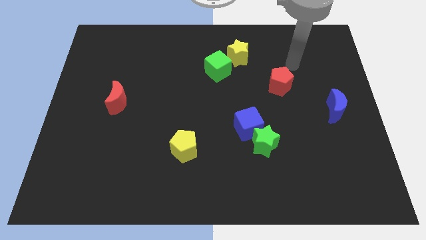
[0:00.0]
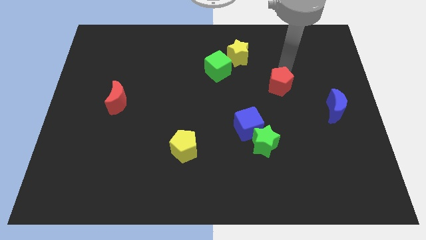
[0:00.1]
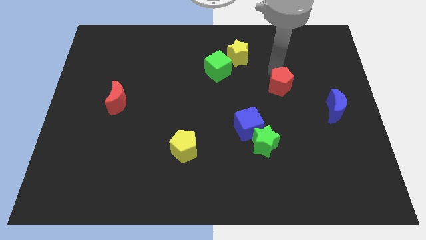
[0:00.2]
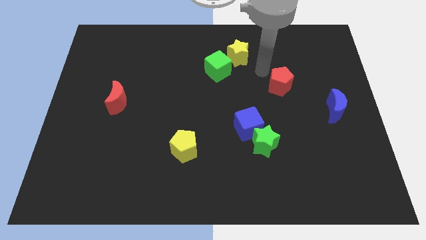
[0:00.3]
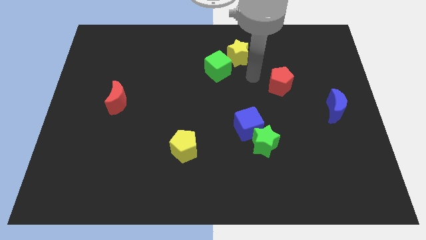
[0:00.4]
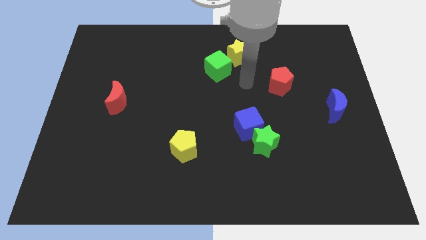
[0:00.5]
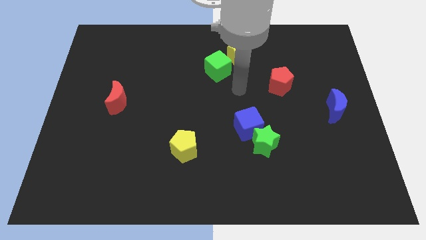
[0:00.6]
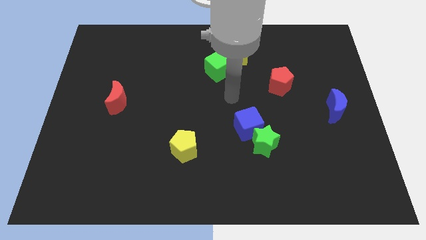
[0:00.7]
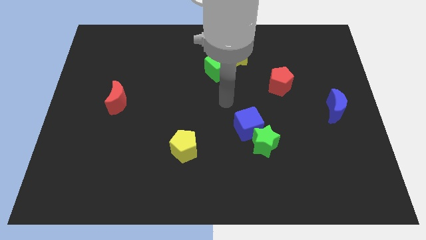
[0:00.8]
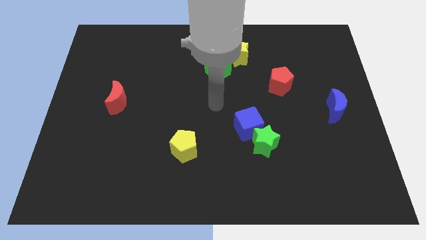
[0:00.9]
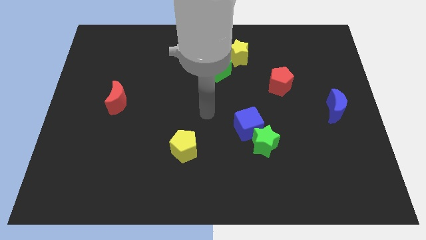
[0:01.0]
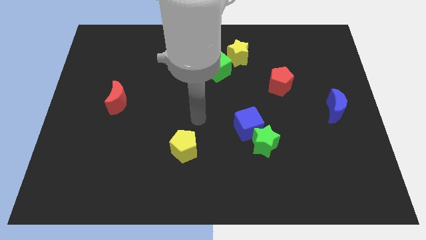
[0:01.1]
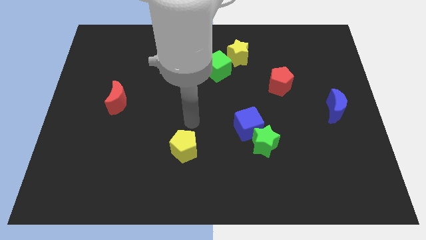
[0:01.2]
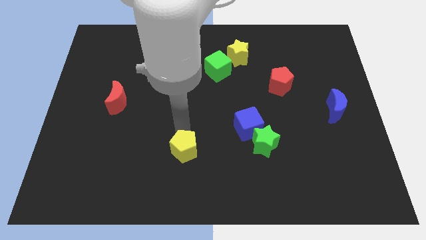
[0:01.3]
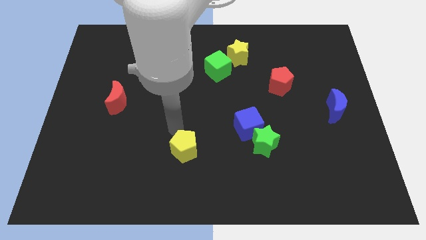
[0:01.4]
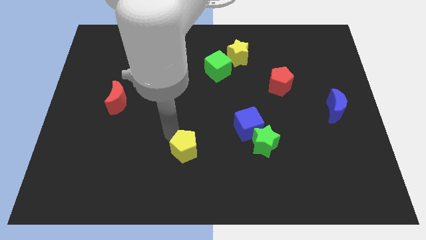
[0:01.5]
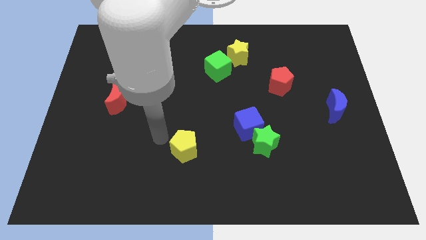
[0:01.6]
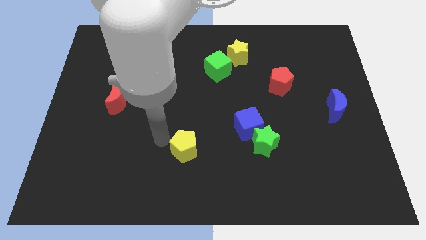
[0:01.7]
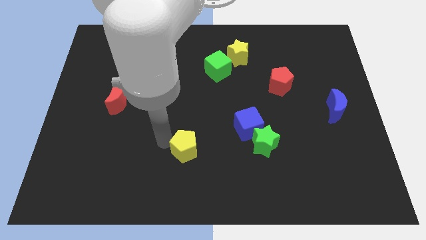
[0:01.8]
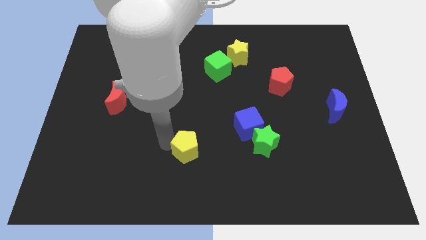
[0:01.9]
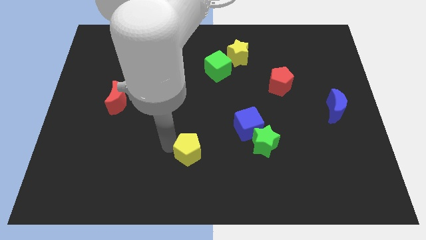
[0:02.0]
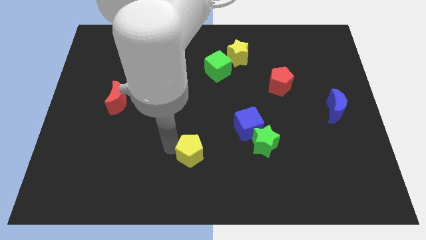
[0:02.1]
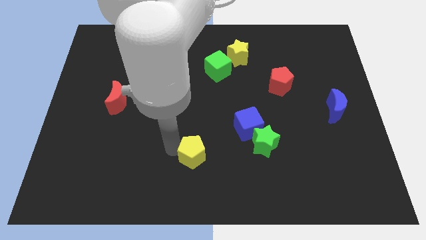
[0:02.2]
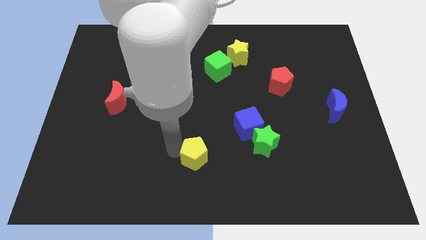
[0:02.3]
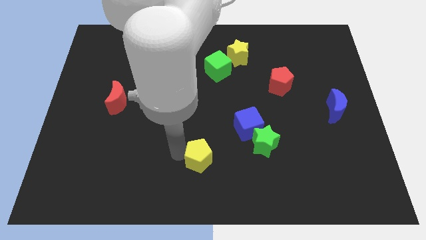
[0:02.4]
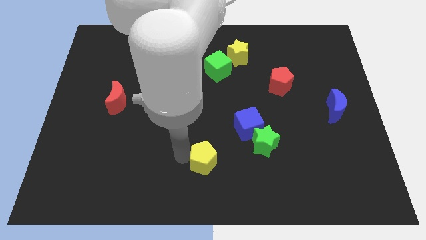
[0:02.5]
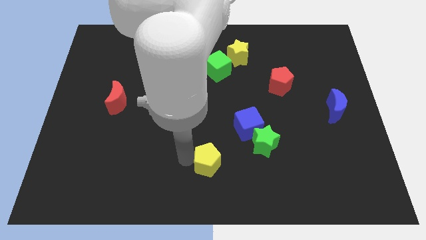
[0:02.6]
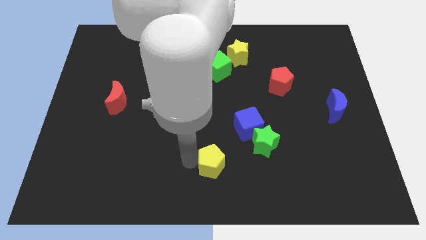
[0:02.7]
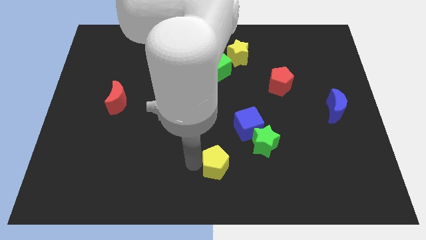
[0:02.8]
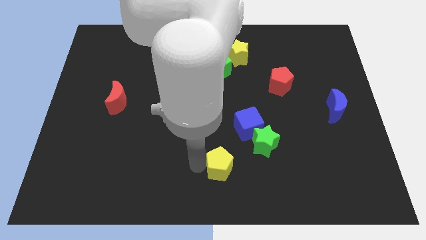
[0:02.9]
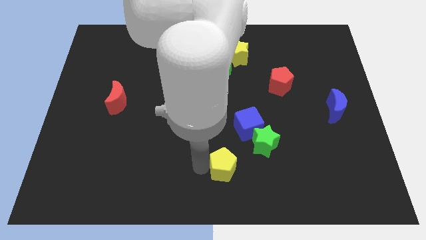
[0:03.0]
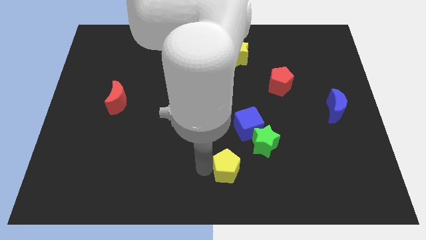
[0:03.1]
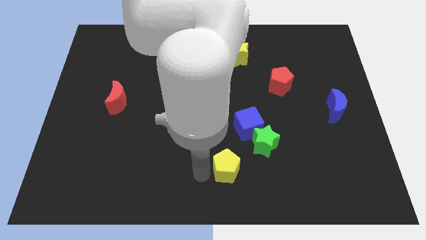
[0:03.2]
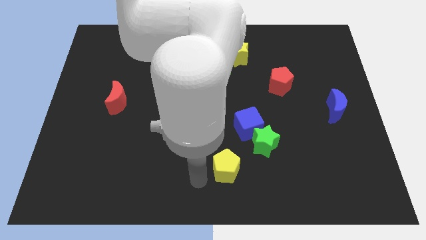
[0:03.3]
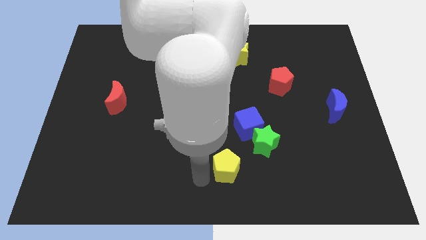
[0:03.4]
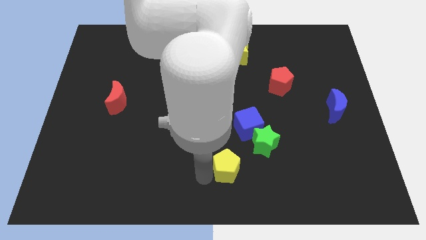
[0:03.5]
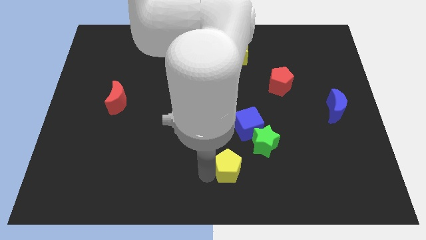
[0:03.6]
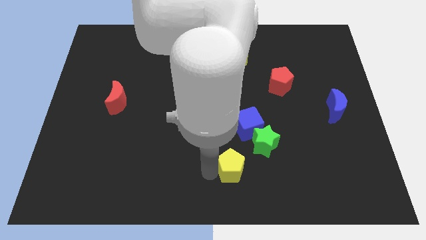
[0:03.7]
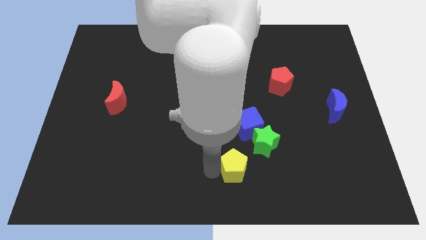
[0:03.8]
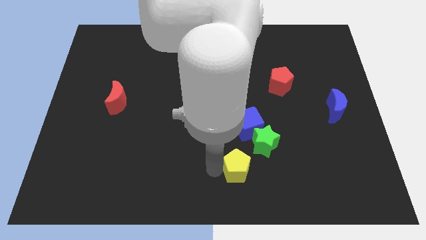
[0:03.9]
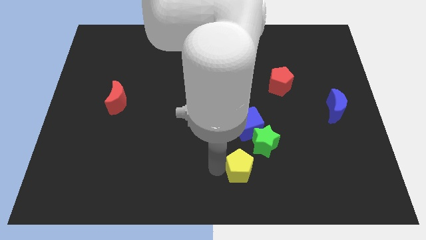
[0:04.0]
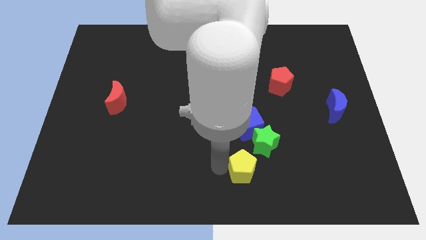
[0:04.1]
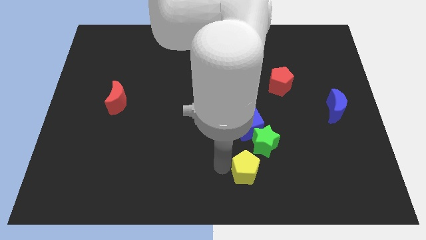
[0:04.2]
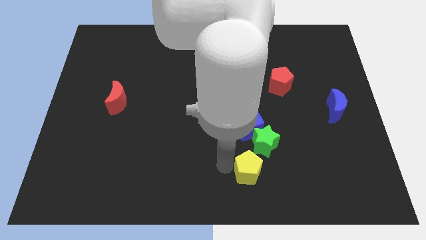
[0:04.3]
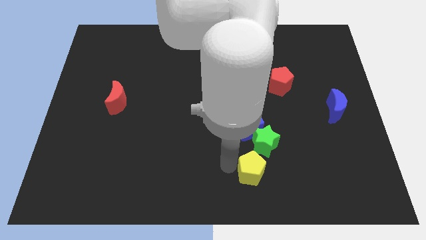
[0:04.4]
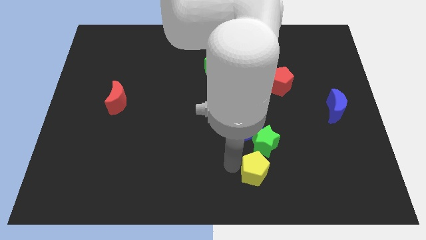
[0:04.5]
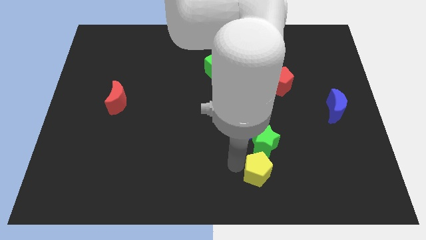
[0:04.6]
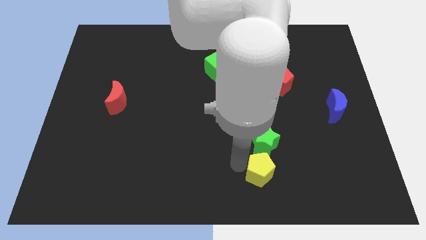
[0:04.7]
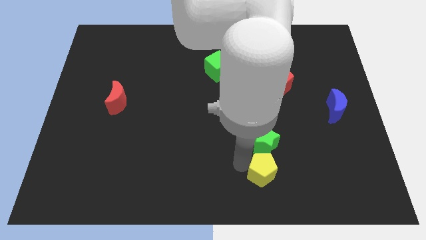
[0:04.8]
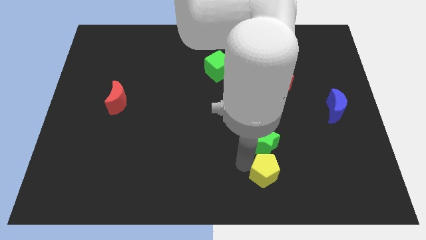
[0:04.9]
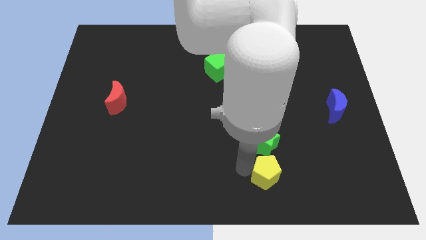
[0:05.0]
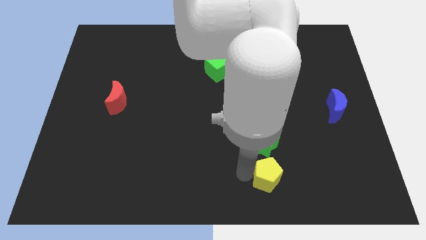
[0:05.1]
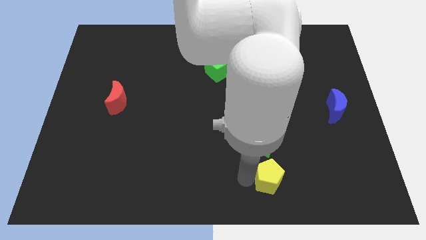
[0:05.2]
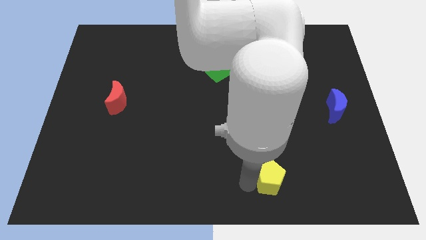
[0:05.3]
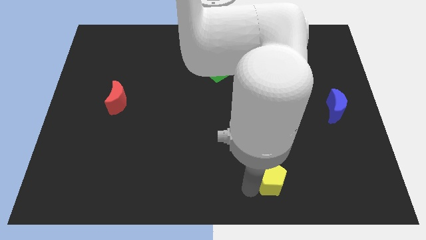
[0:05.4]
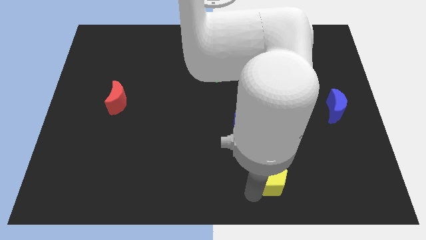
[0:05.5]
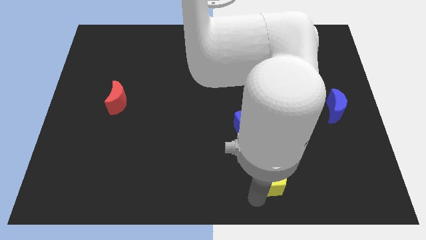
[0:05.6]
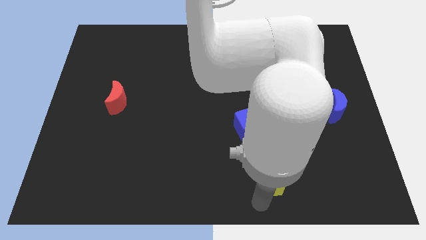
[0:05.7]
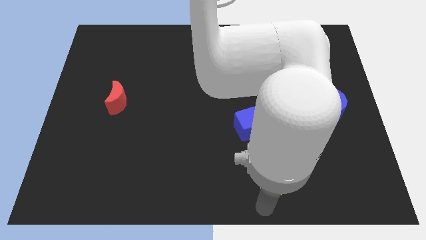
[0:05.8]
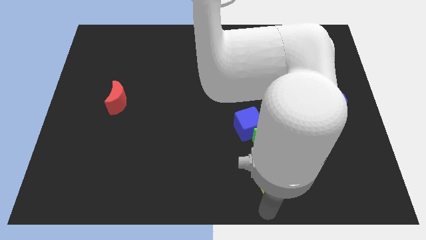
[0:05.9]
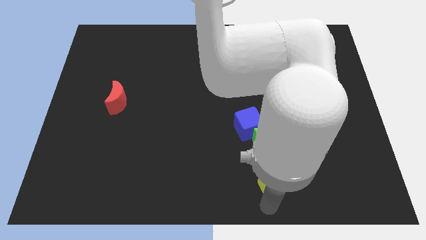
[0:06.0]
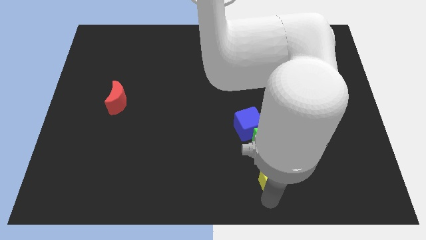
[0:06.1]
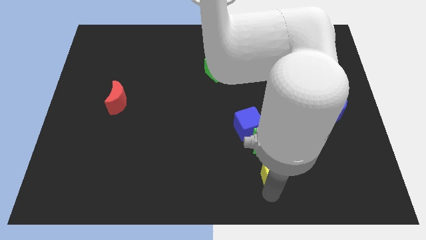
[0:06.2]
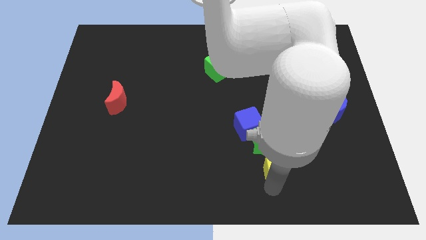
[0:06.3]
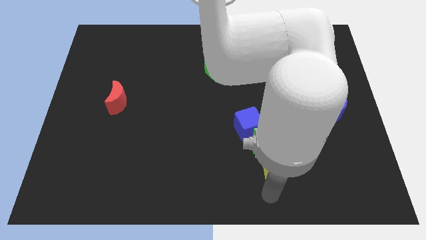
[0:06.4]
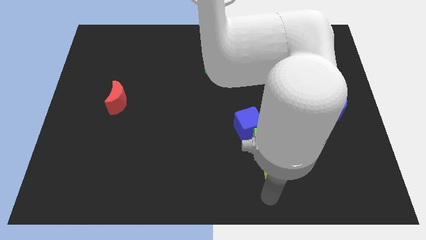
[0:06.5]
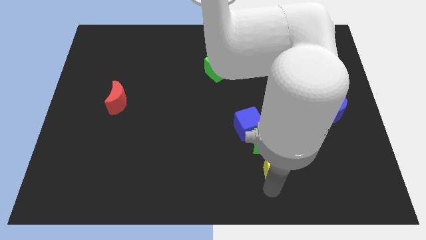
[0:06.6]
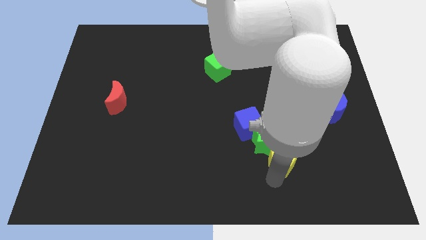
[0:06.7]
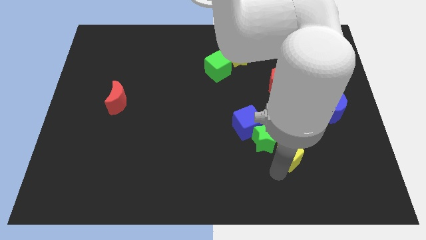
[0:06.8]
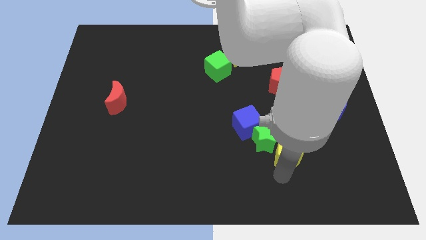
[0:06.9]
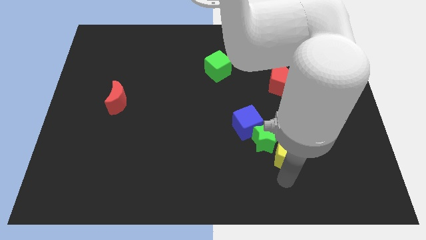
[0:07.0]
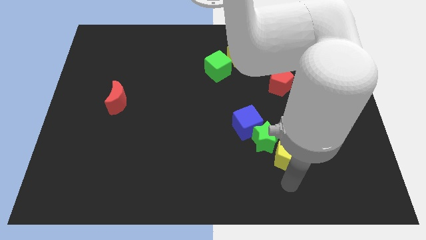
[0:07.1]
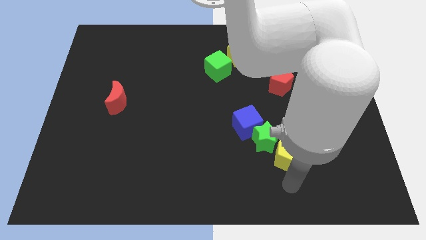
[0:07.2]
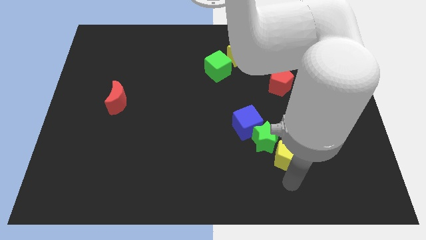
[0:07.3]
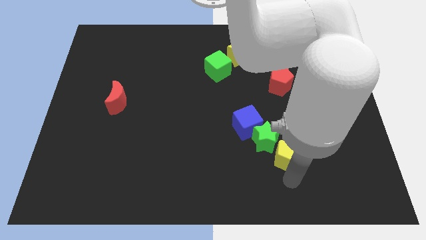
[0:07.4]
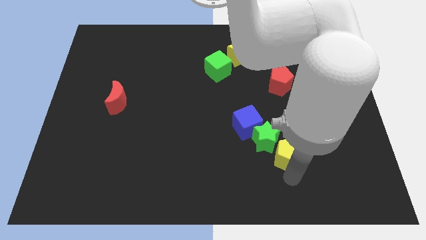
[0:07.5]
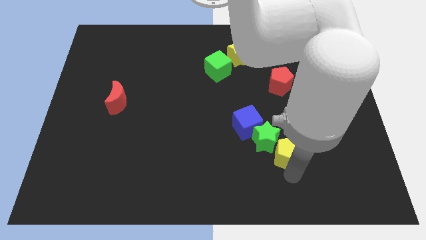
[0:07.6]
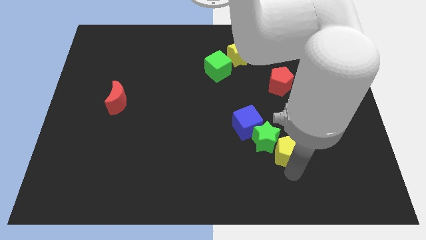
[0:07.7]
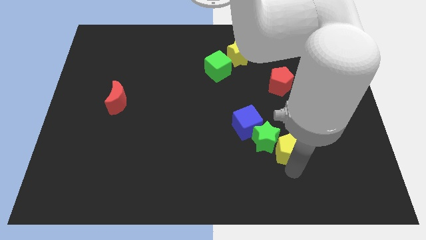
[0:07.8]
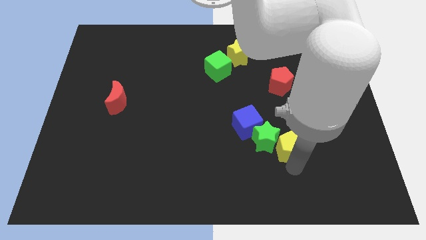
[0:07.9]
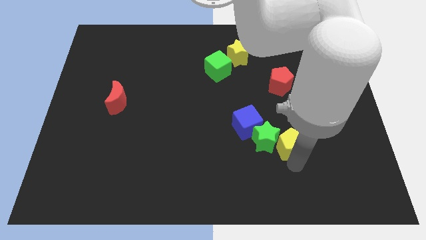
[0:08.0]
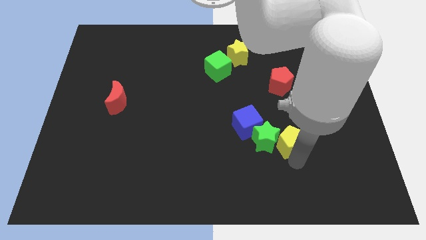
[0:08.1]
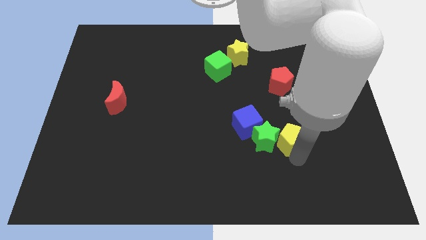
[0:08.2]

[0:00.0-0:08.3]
move the yellow pentagon to the right side of the blue cube
